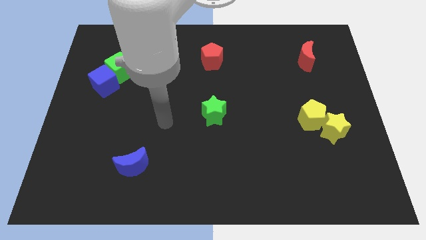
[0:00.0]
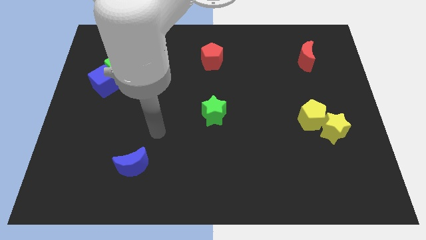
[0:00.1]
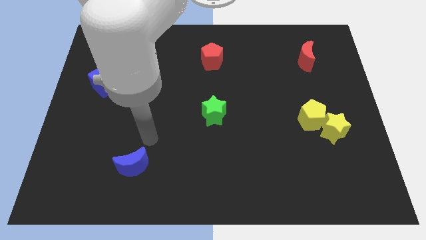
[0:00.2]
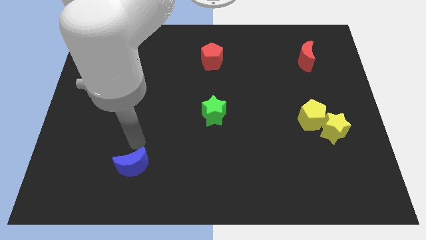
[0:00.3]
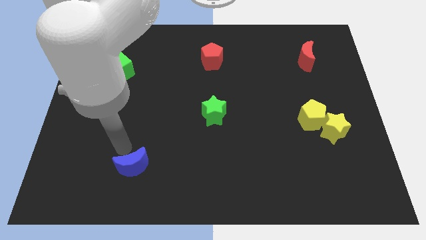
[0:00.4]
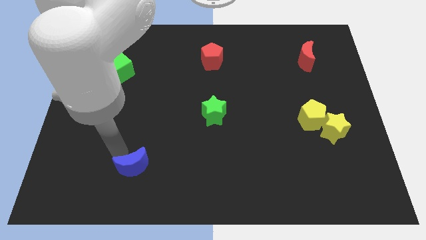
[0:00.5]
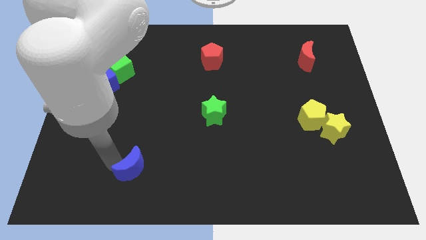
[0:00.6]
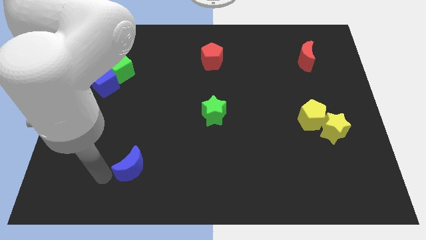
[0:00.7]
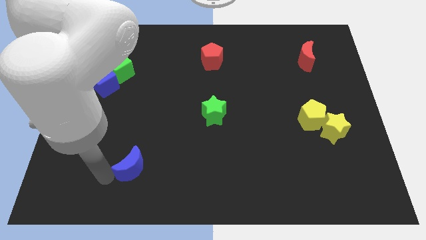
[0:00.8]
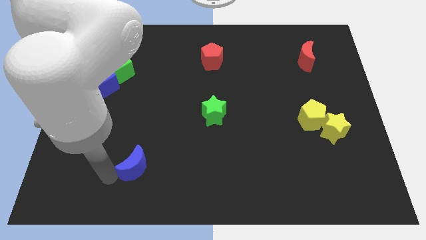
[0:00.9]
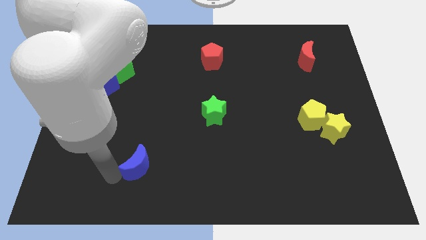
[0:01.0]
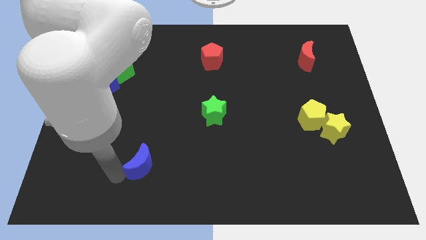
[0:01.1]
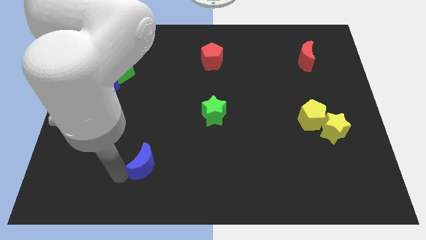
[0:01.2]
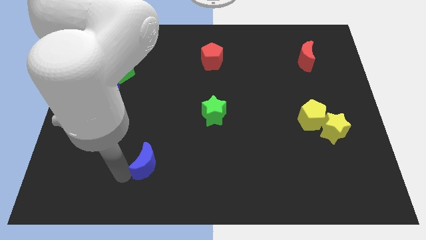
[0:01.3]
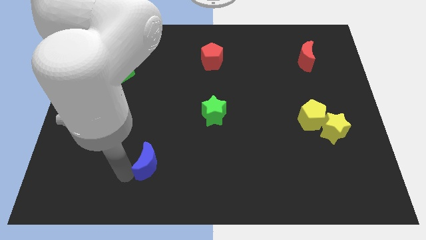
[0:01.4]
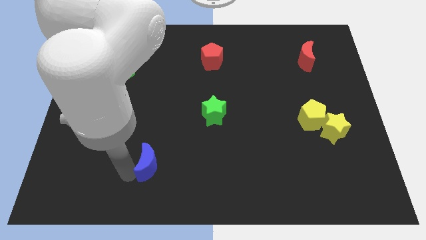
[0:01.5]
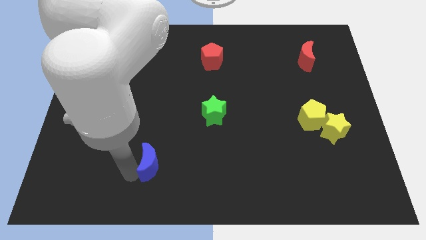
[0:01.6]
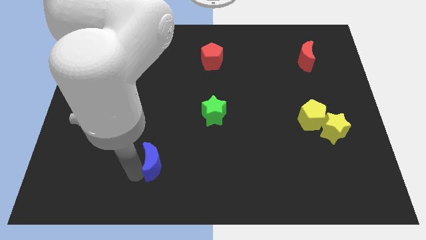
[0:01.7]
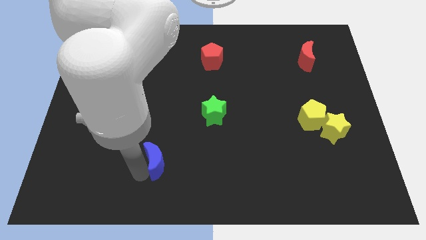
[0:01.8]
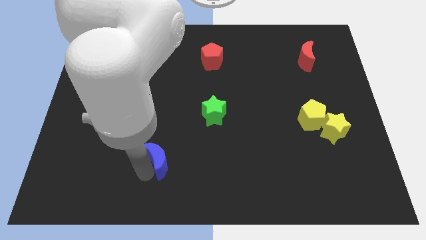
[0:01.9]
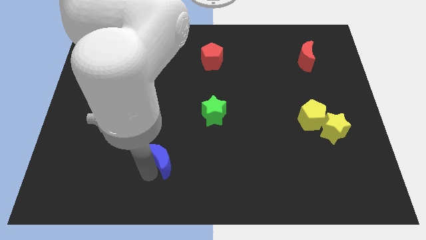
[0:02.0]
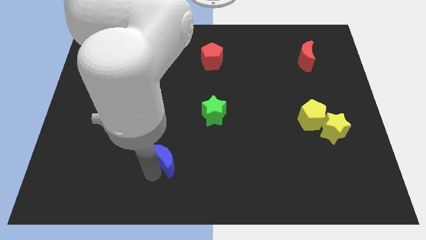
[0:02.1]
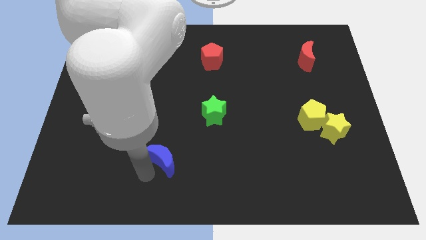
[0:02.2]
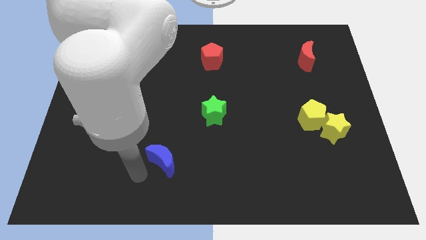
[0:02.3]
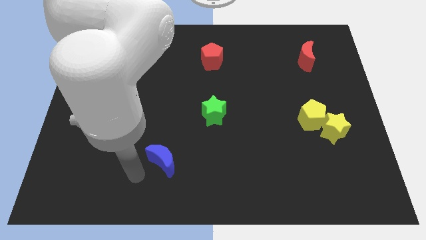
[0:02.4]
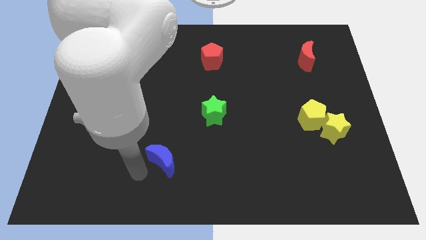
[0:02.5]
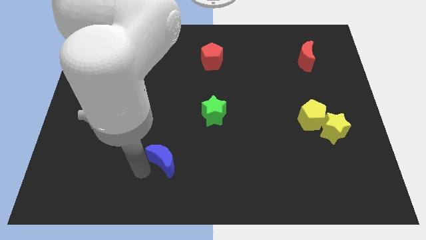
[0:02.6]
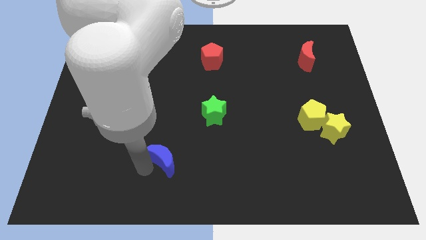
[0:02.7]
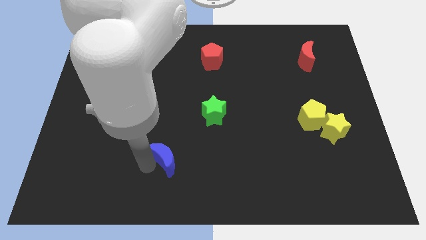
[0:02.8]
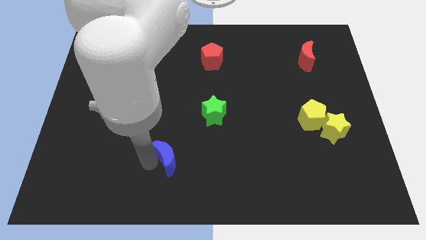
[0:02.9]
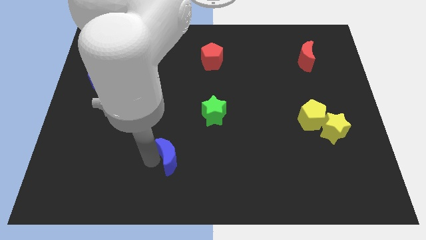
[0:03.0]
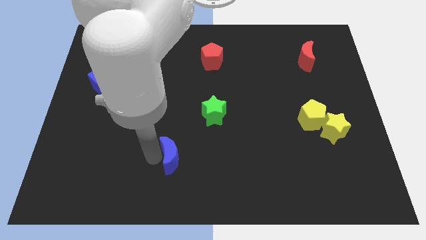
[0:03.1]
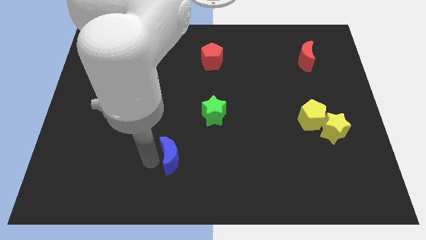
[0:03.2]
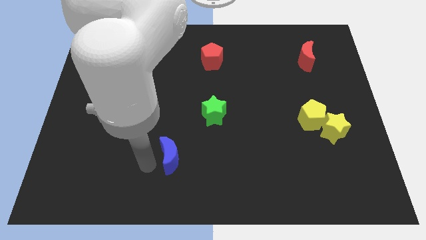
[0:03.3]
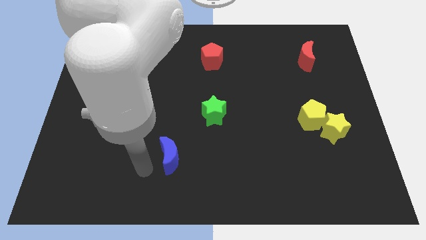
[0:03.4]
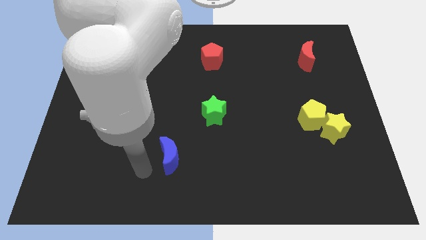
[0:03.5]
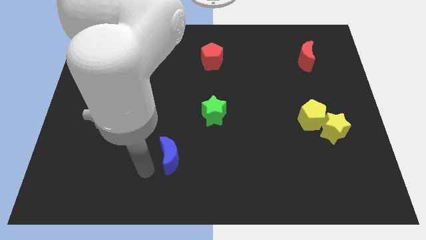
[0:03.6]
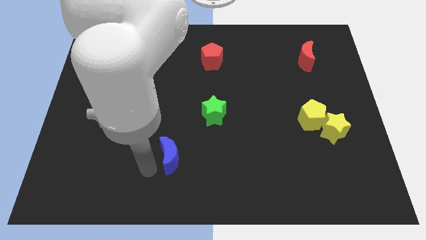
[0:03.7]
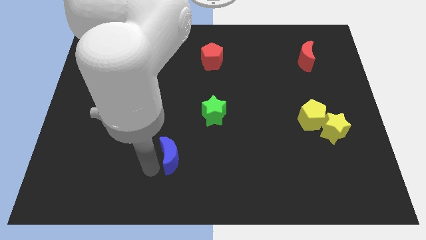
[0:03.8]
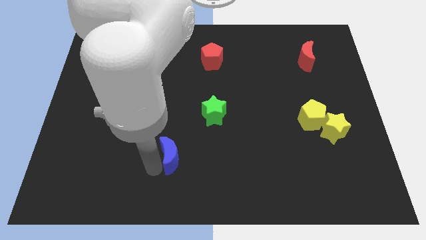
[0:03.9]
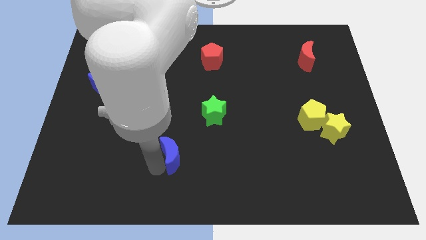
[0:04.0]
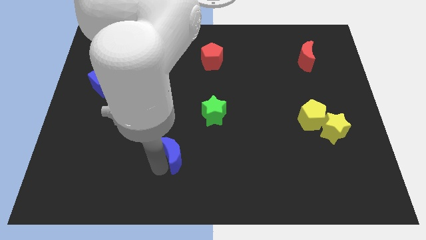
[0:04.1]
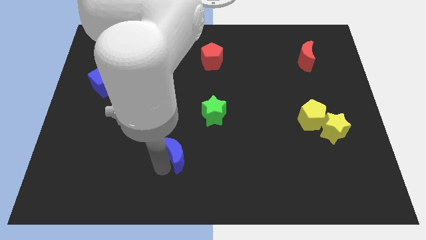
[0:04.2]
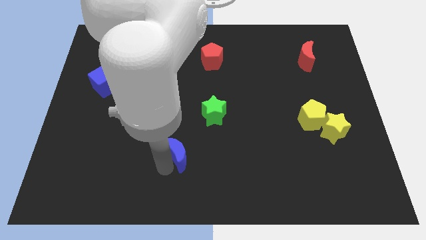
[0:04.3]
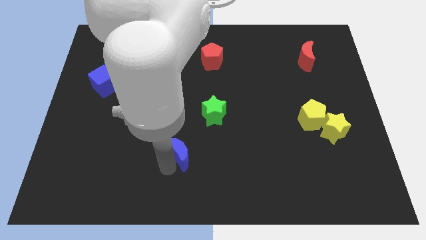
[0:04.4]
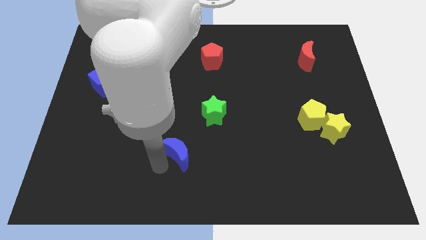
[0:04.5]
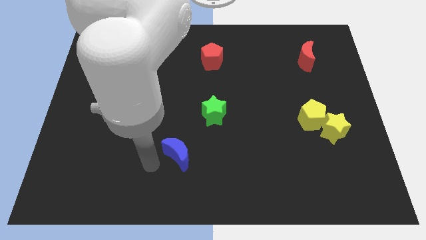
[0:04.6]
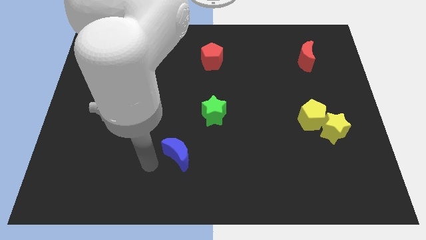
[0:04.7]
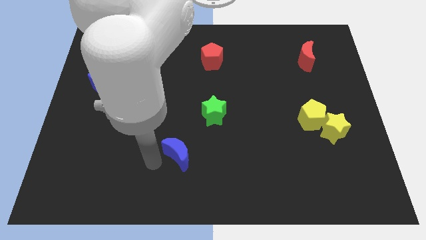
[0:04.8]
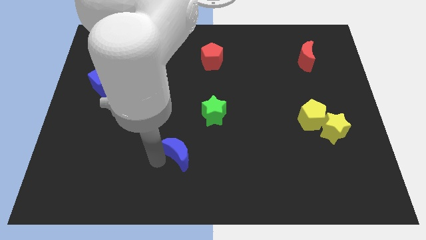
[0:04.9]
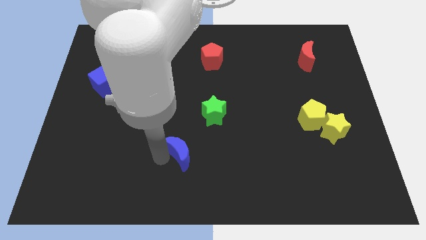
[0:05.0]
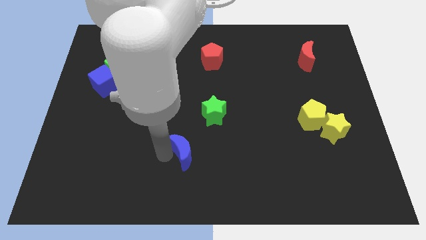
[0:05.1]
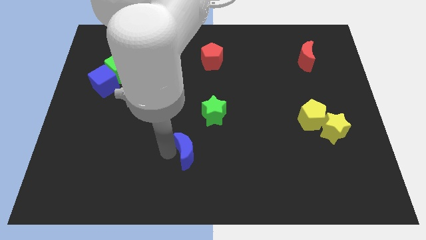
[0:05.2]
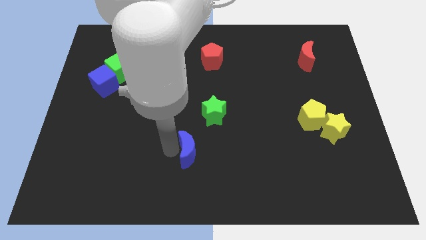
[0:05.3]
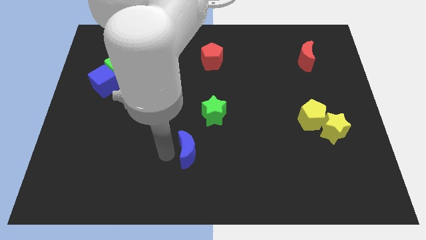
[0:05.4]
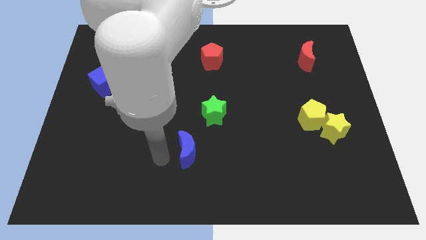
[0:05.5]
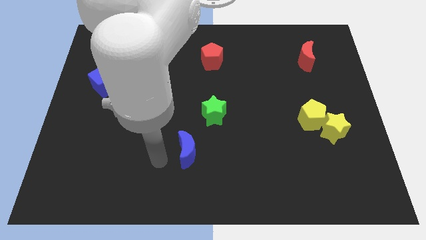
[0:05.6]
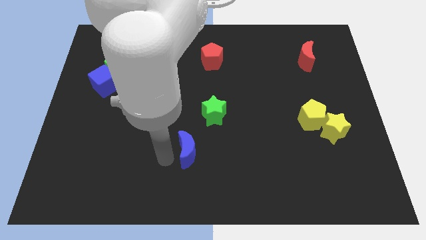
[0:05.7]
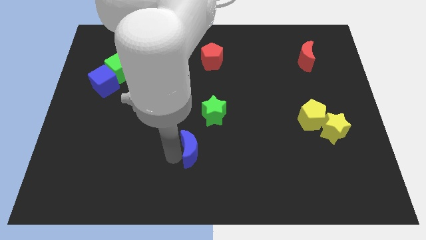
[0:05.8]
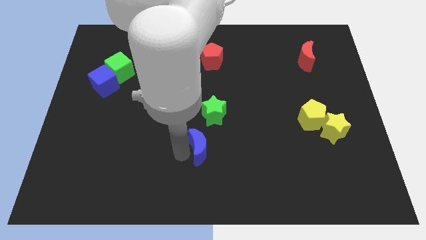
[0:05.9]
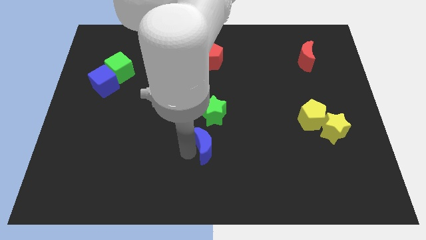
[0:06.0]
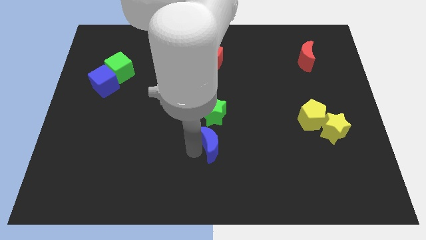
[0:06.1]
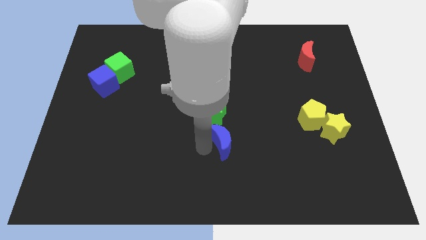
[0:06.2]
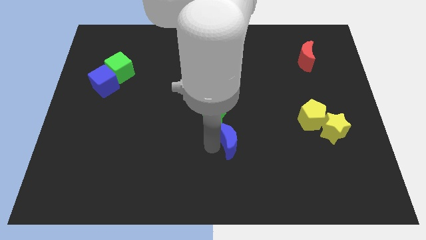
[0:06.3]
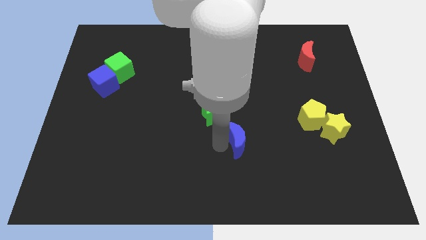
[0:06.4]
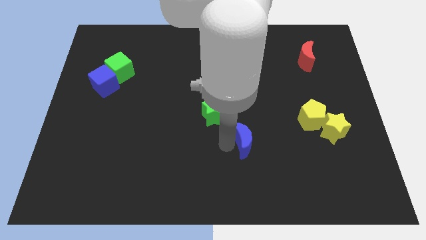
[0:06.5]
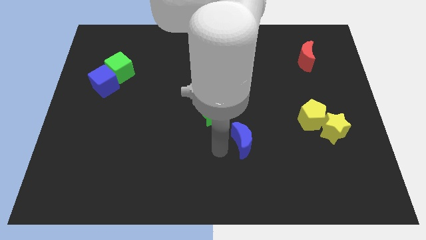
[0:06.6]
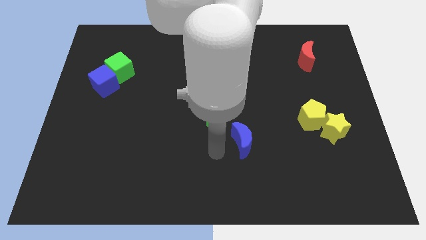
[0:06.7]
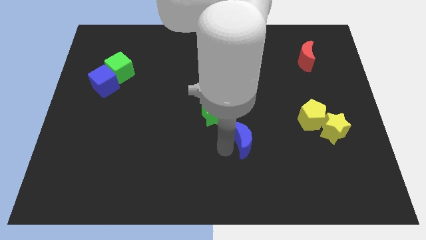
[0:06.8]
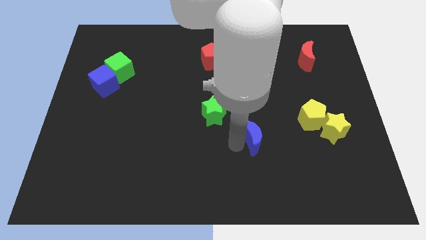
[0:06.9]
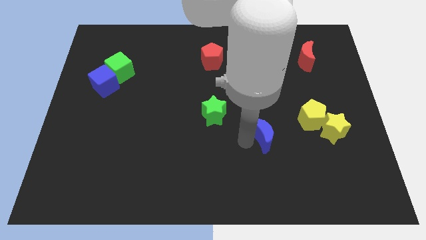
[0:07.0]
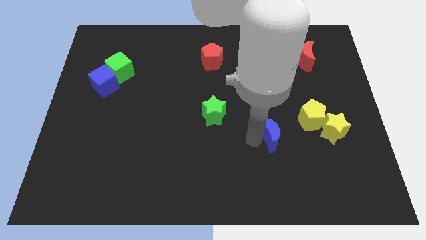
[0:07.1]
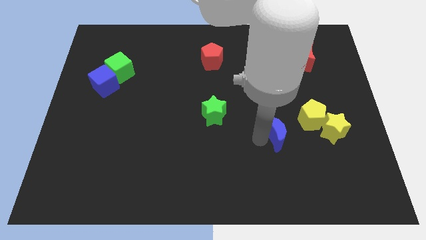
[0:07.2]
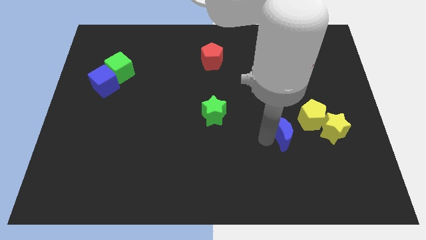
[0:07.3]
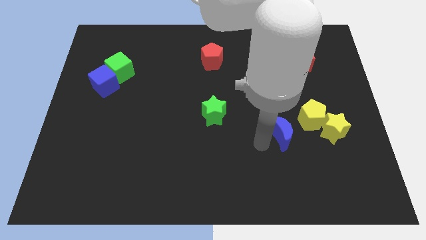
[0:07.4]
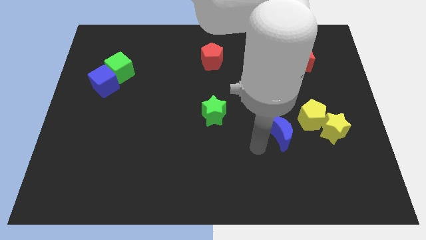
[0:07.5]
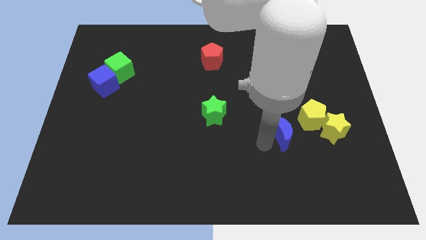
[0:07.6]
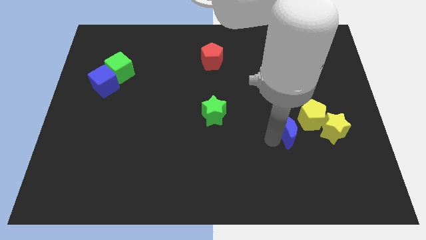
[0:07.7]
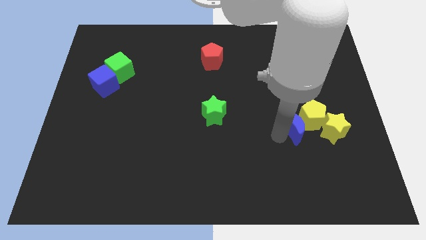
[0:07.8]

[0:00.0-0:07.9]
push the blue moon towards the yellow pentagon

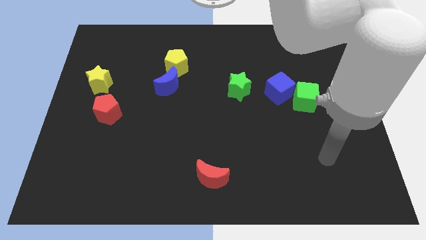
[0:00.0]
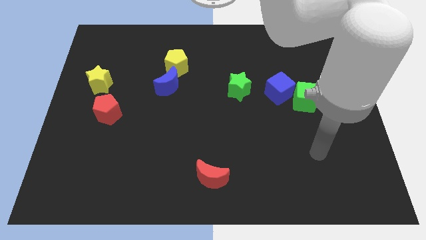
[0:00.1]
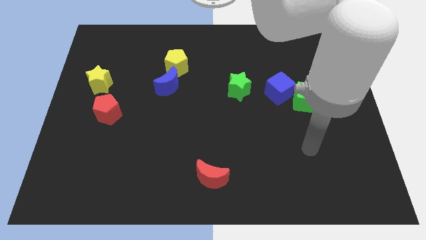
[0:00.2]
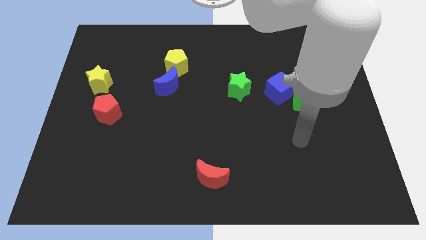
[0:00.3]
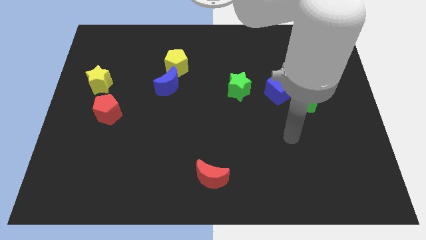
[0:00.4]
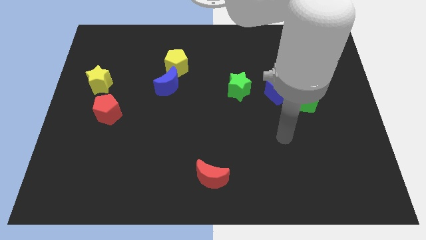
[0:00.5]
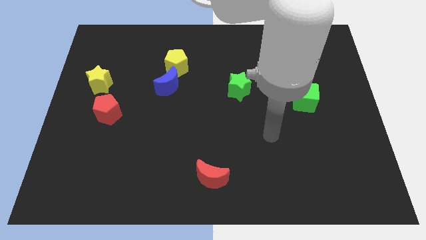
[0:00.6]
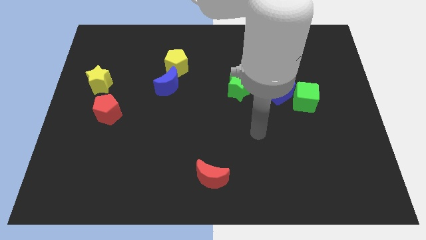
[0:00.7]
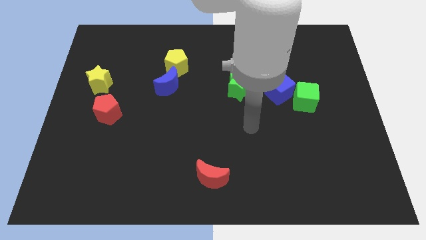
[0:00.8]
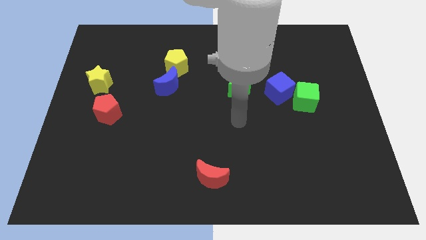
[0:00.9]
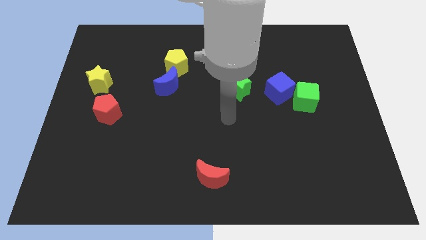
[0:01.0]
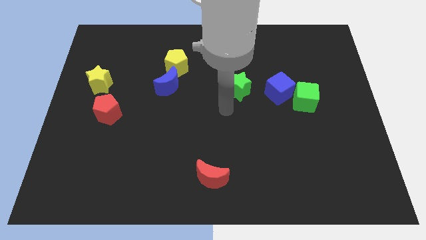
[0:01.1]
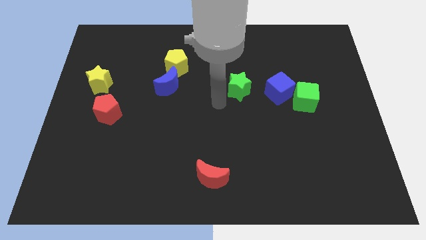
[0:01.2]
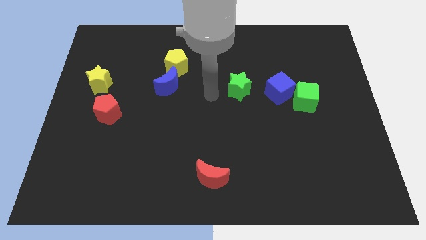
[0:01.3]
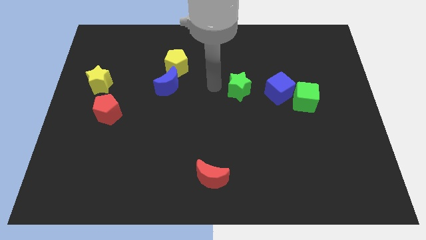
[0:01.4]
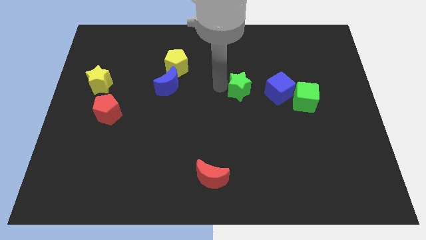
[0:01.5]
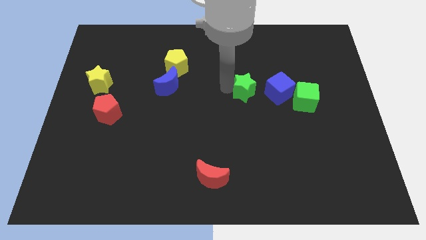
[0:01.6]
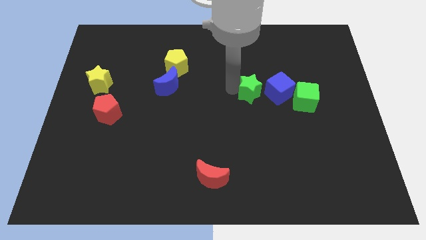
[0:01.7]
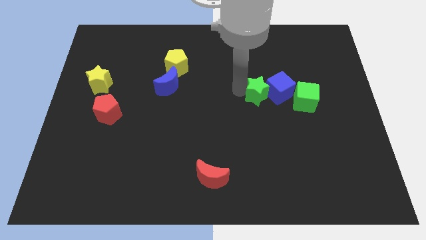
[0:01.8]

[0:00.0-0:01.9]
put the green star close to the blue cube
